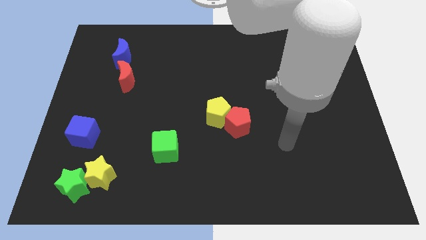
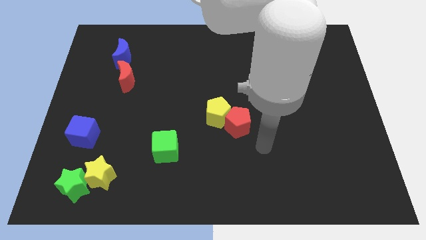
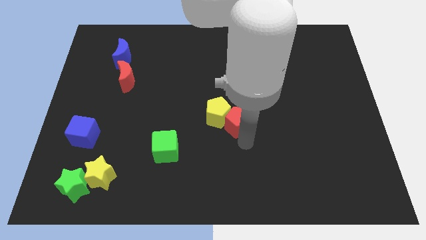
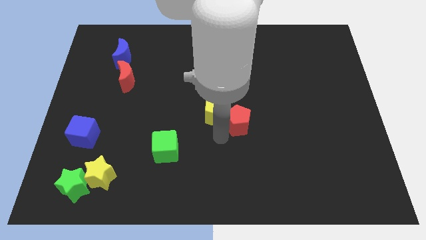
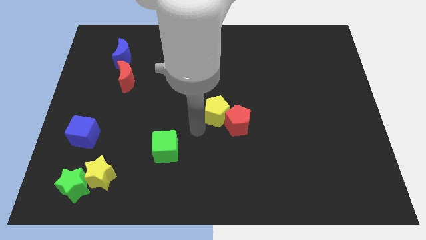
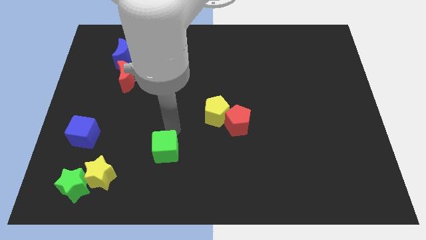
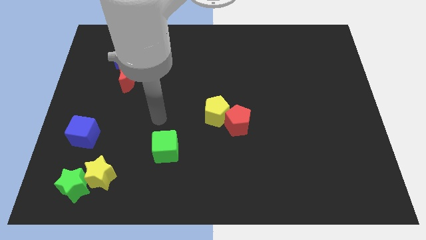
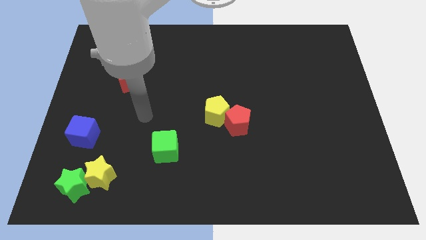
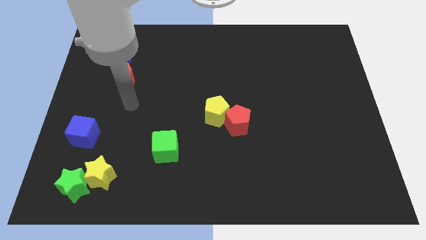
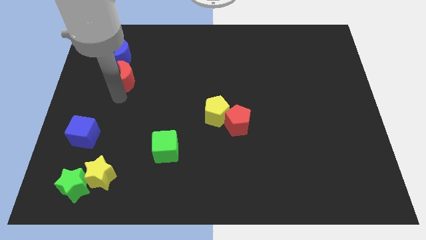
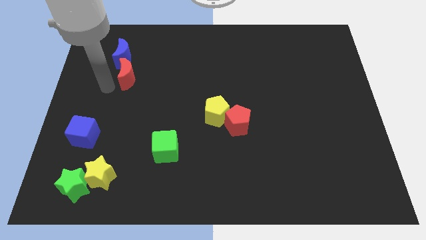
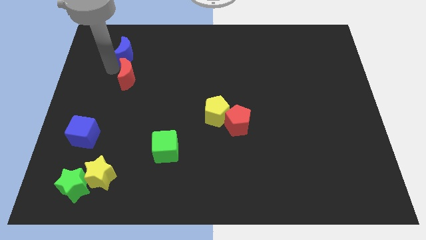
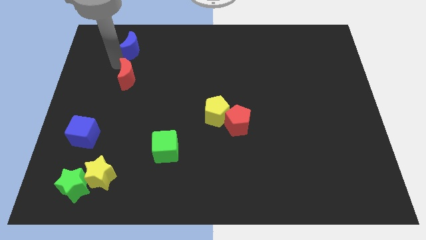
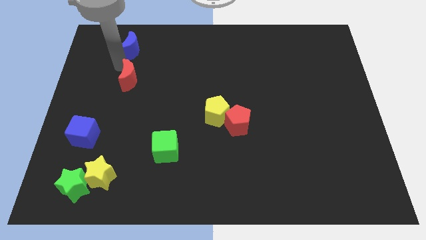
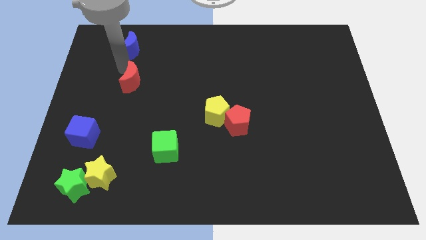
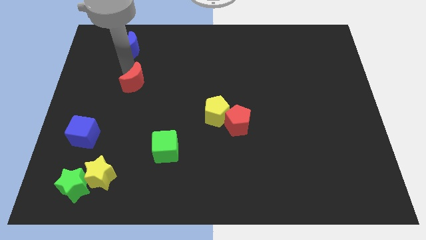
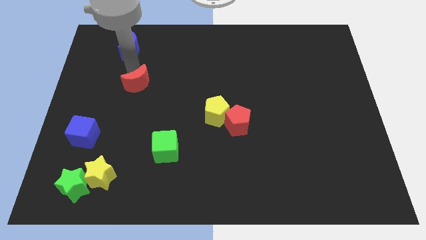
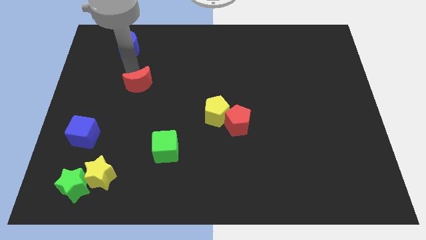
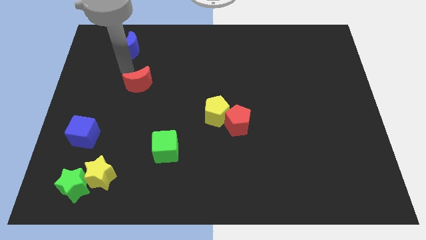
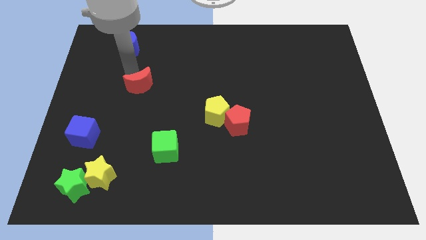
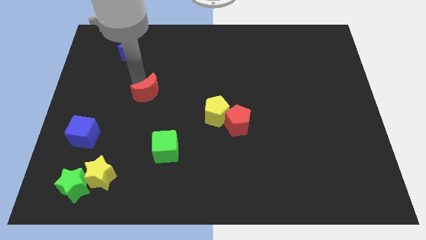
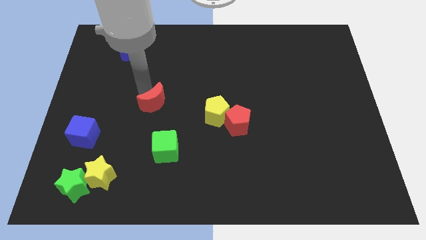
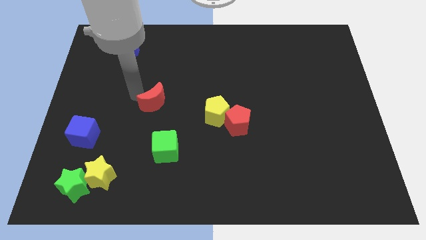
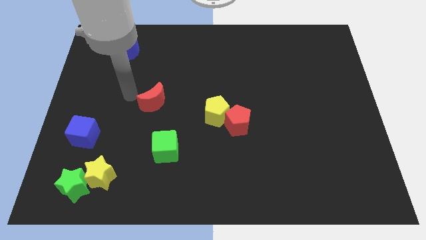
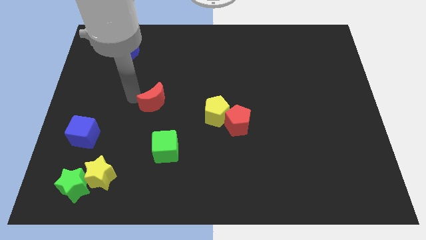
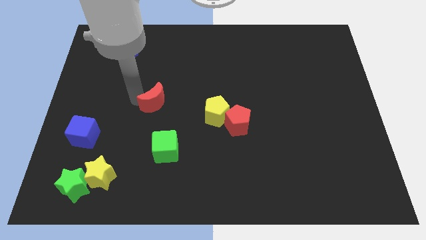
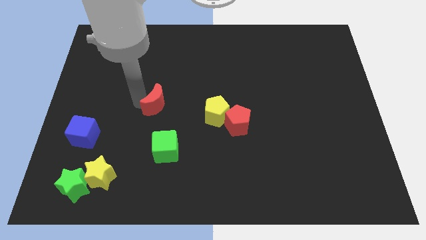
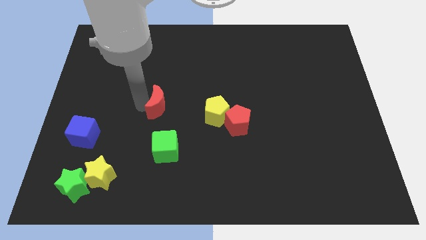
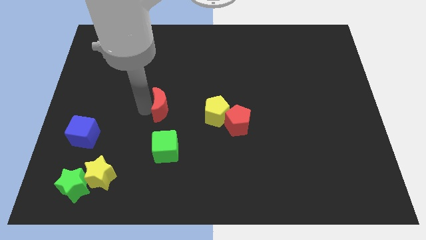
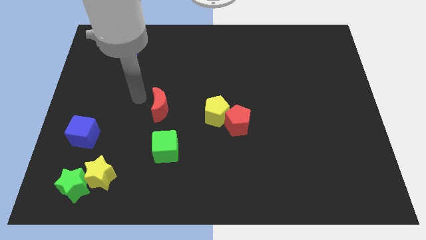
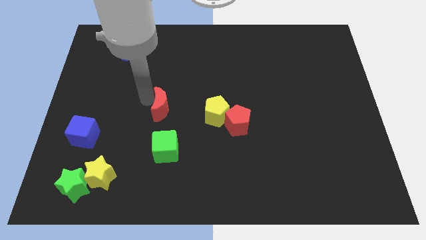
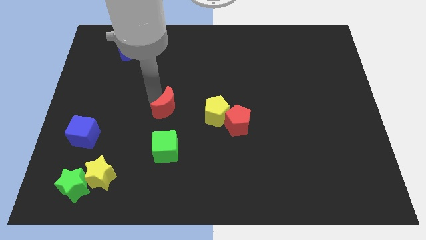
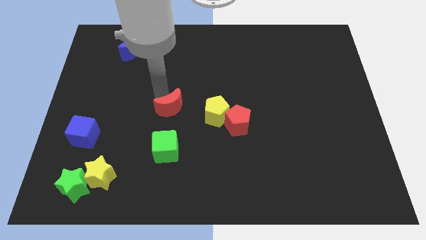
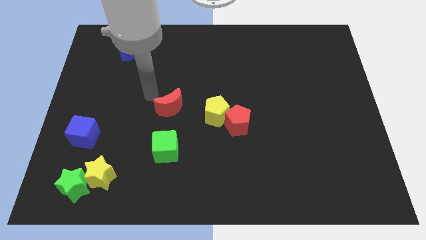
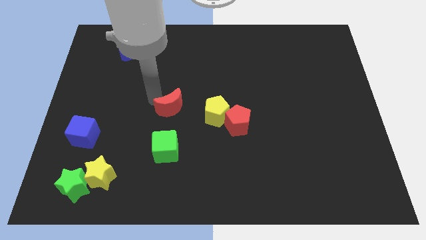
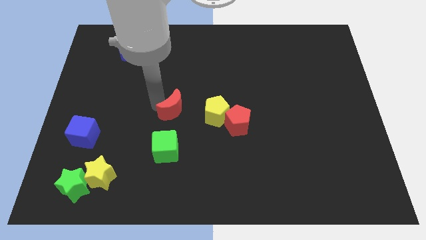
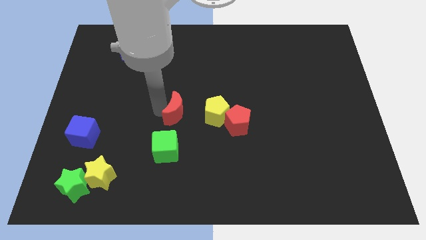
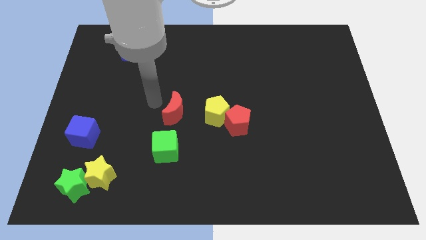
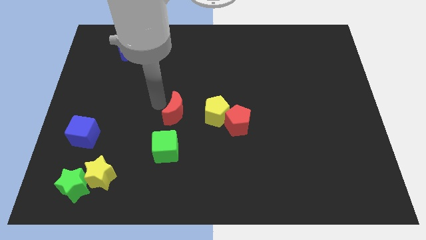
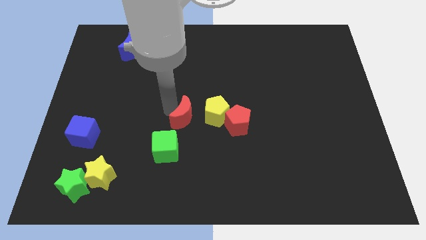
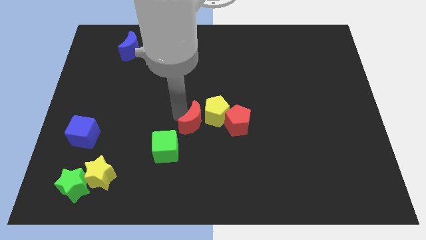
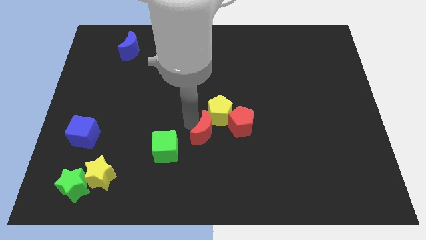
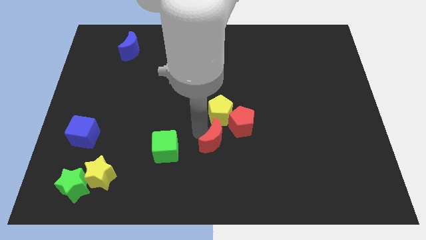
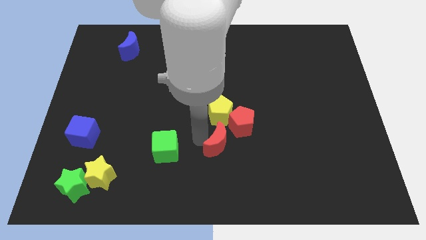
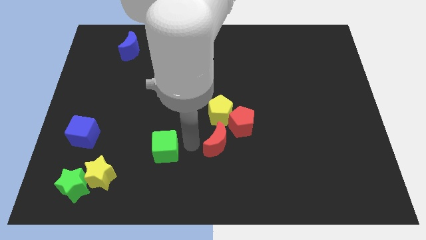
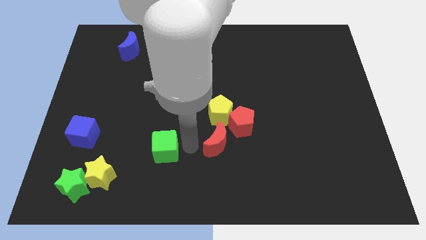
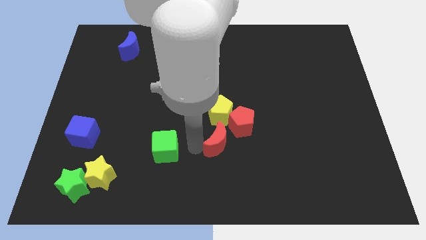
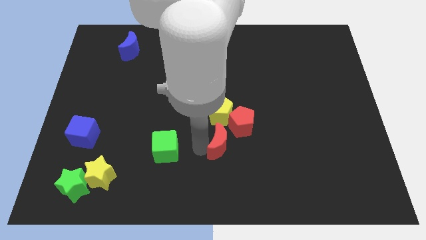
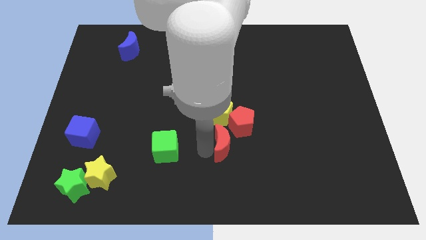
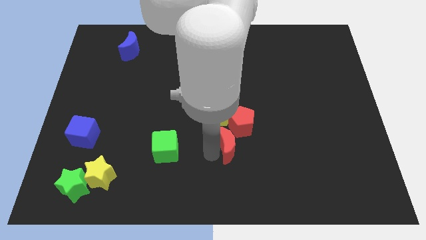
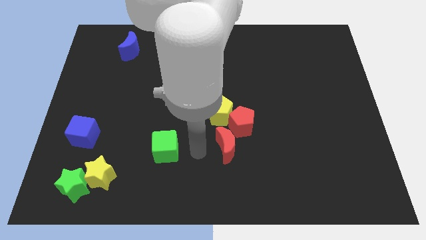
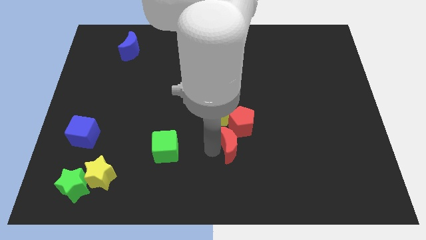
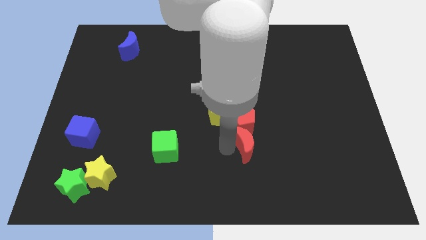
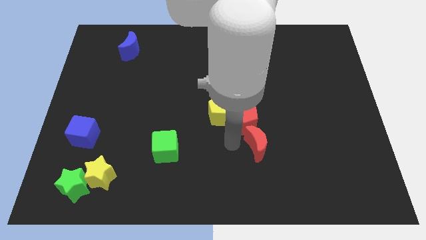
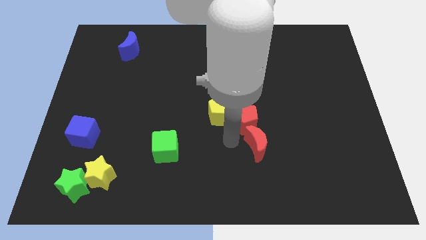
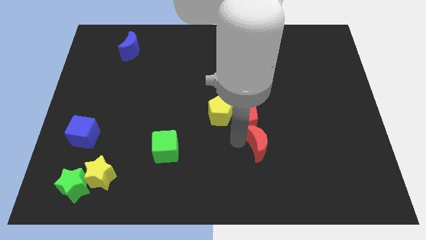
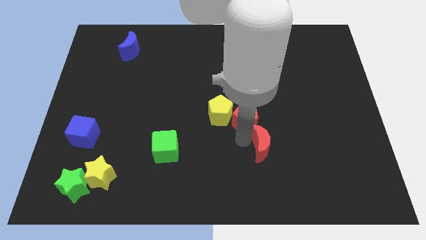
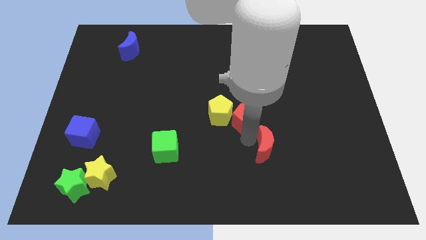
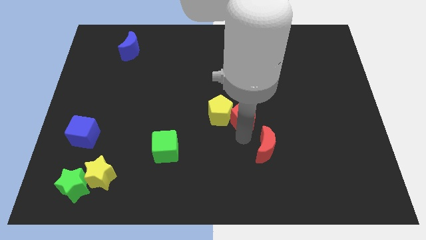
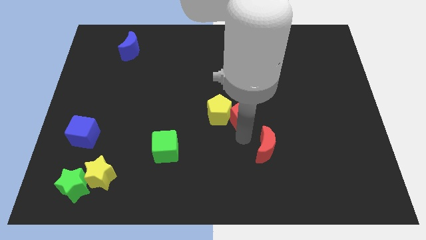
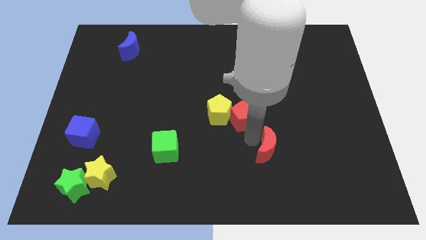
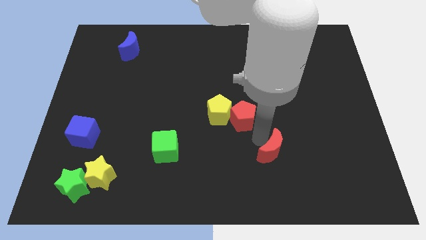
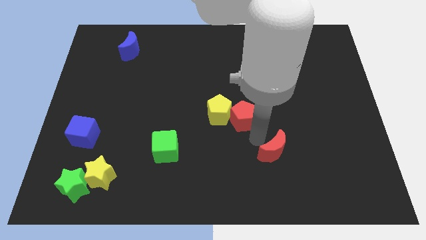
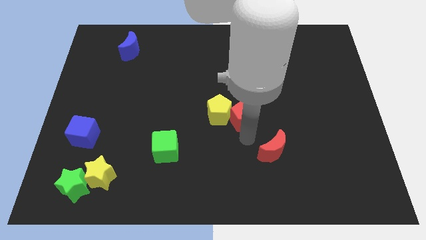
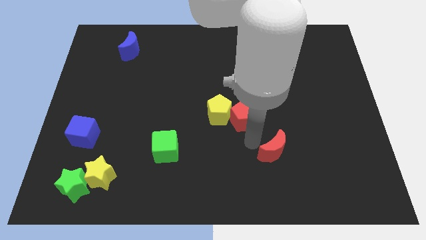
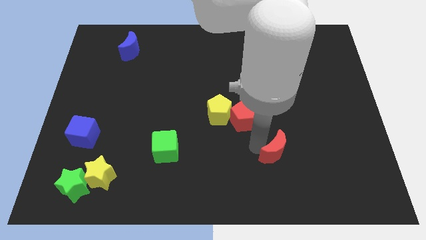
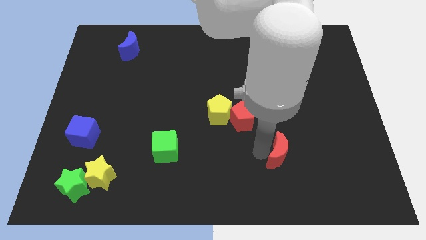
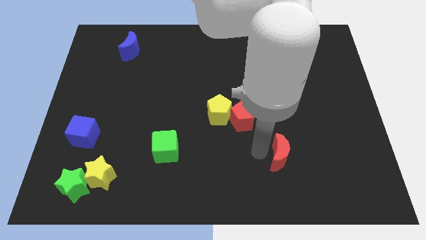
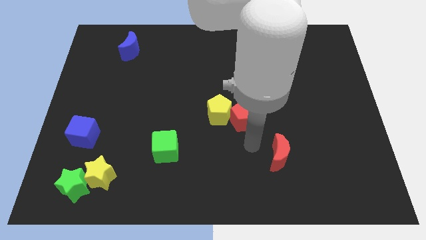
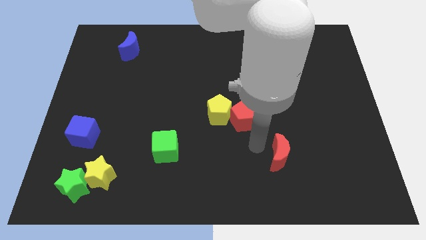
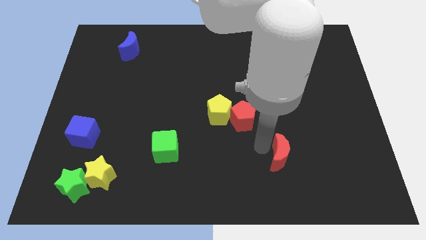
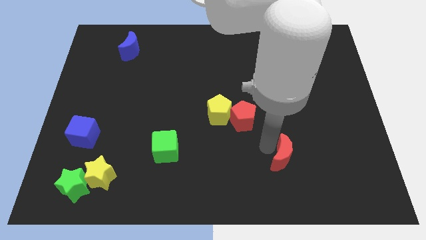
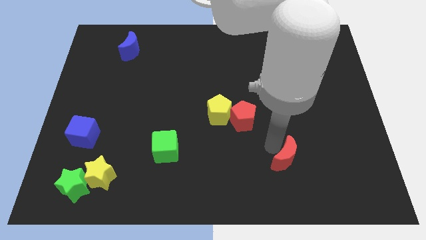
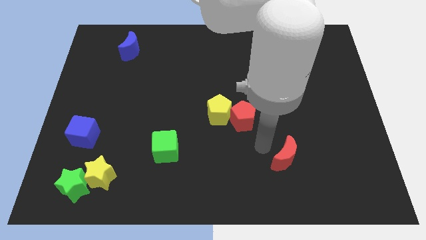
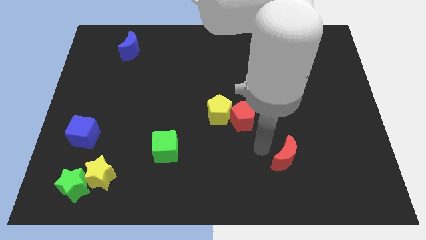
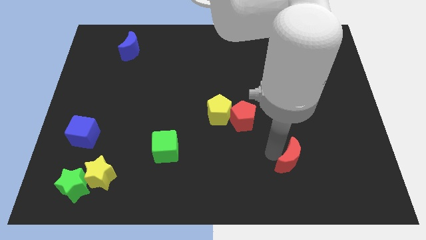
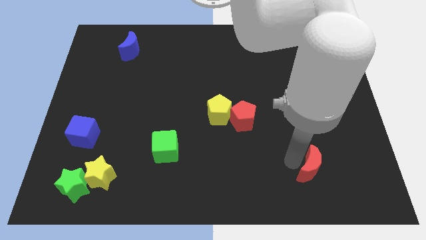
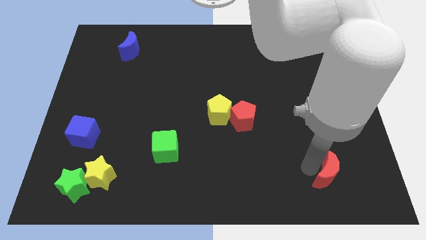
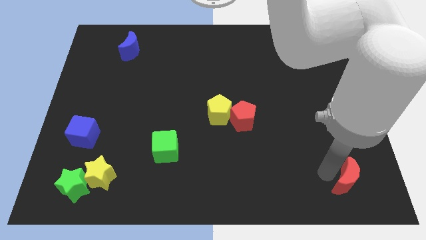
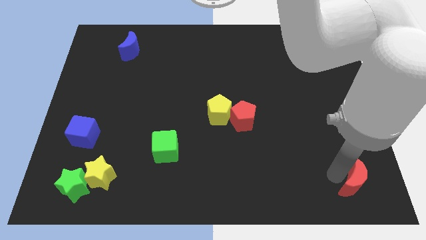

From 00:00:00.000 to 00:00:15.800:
slide the red moon to the lower right corner
